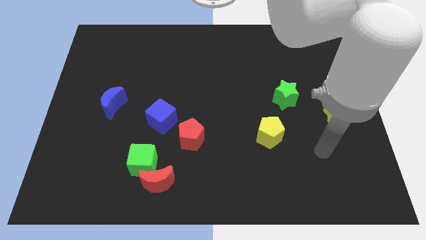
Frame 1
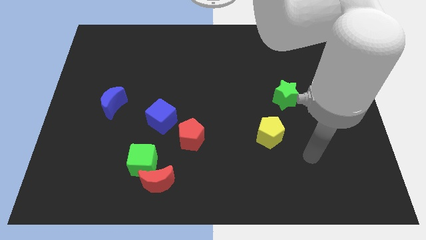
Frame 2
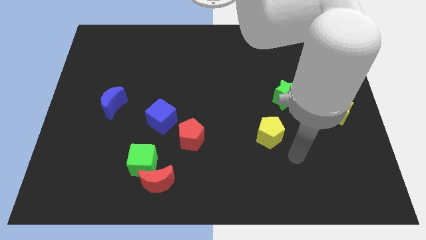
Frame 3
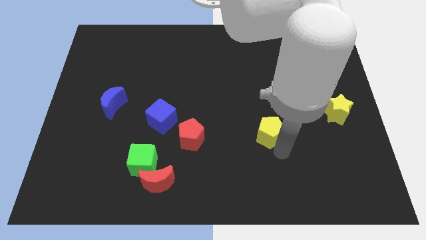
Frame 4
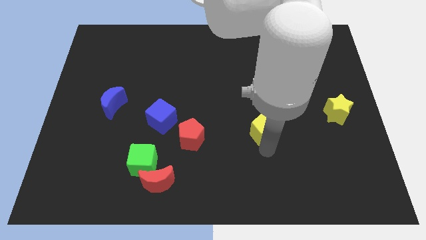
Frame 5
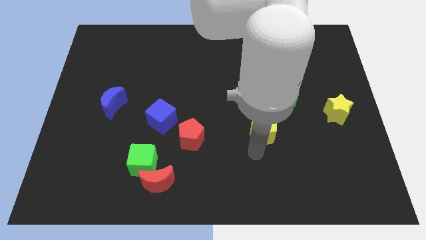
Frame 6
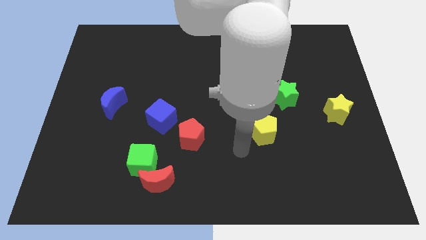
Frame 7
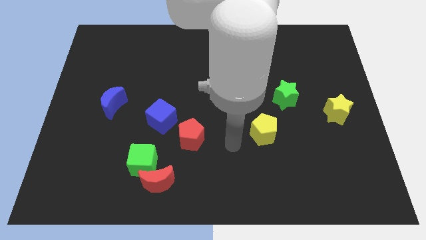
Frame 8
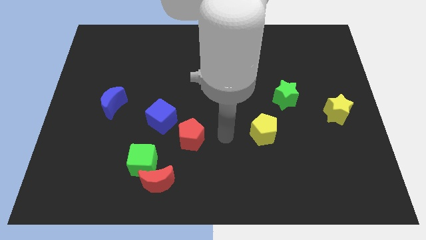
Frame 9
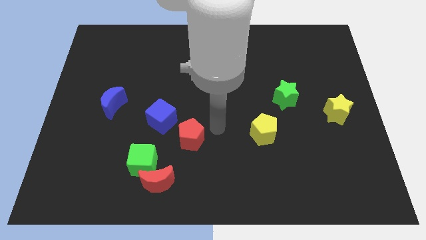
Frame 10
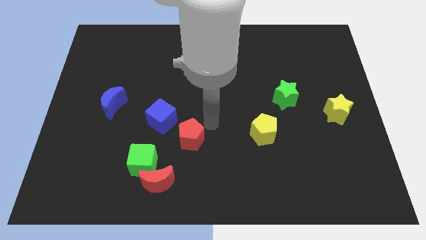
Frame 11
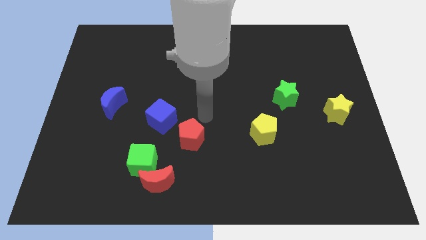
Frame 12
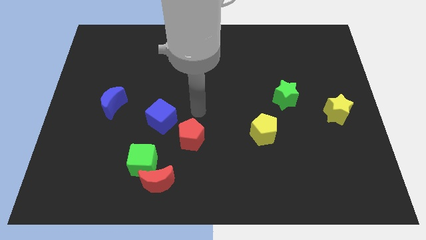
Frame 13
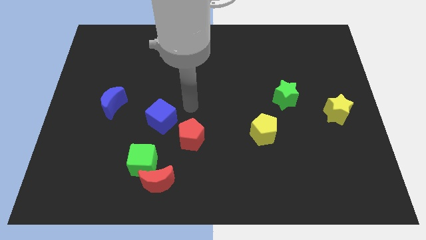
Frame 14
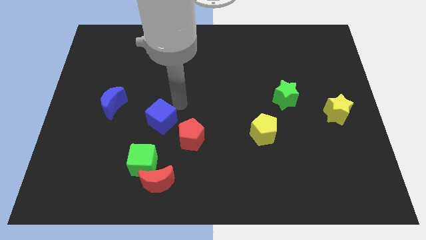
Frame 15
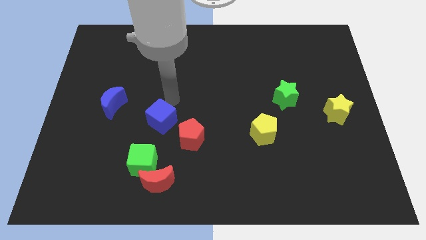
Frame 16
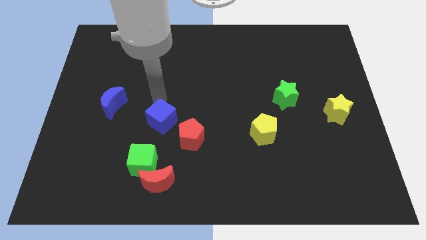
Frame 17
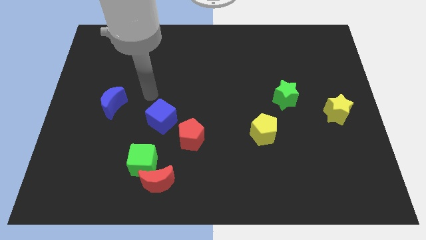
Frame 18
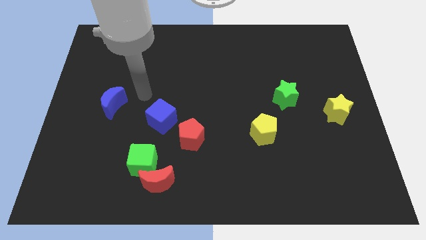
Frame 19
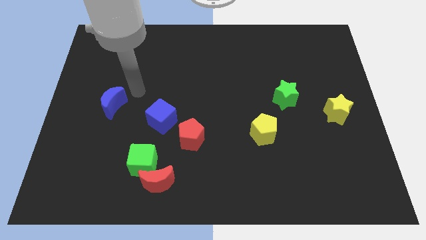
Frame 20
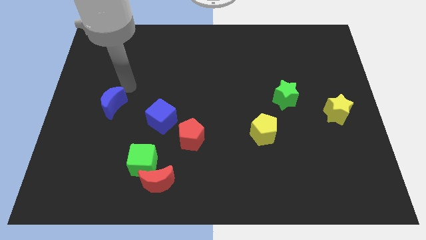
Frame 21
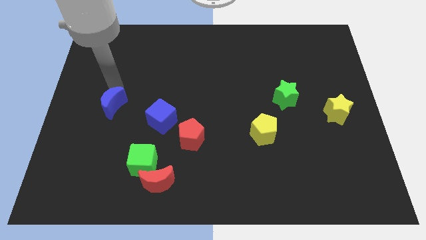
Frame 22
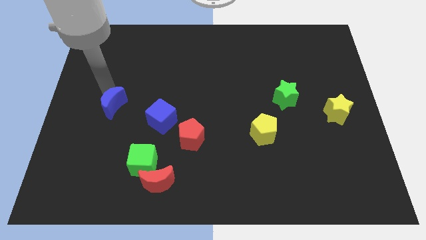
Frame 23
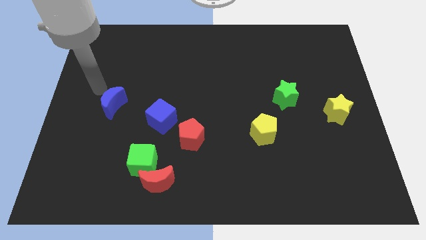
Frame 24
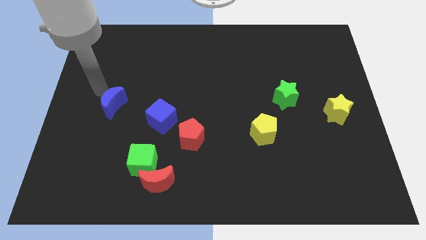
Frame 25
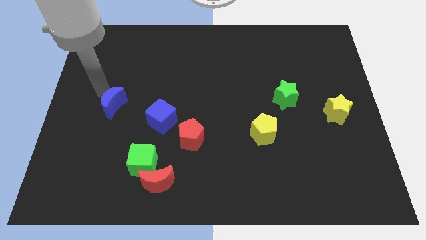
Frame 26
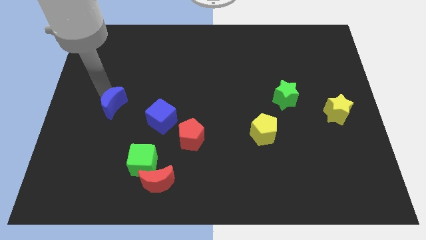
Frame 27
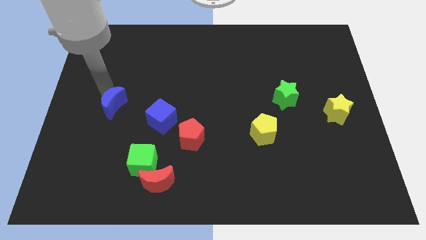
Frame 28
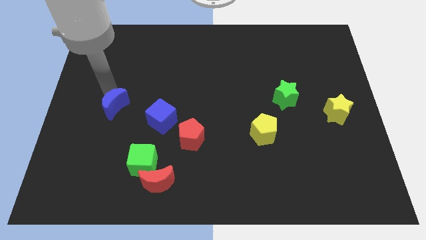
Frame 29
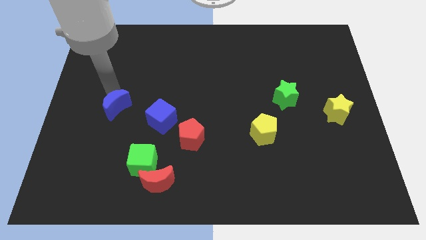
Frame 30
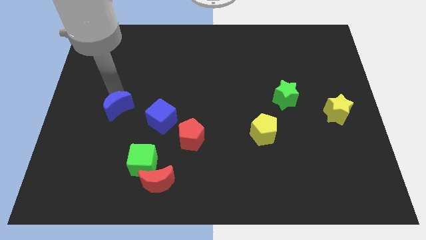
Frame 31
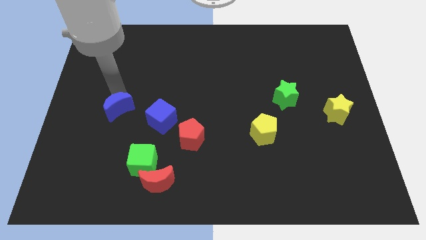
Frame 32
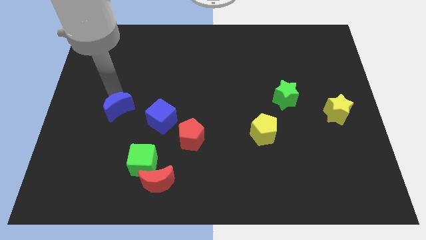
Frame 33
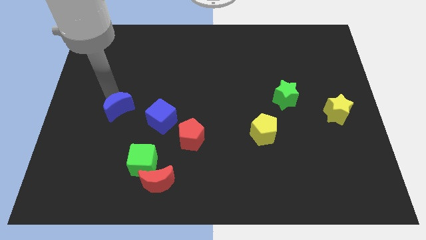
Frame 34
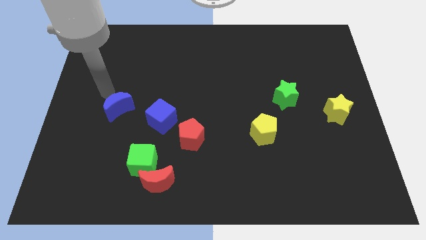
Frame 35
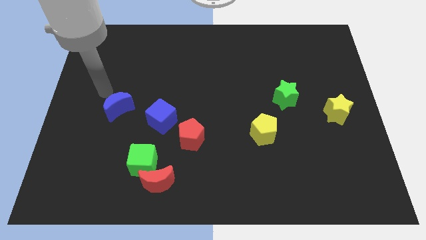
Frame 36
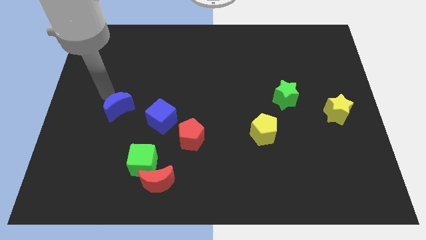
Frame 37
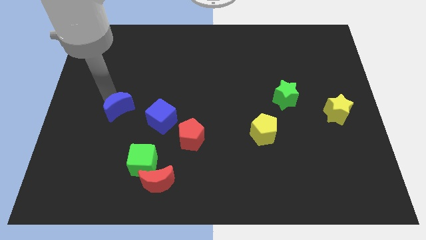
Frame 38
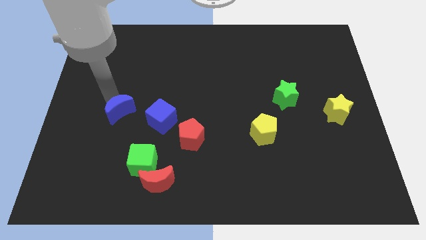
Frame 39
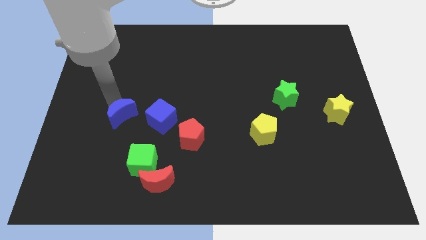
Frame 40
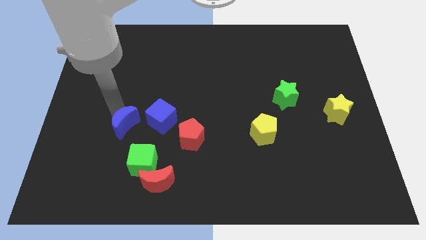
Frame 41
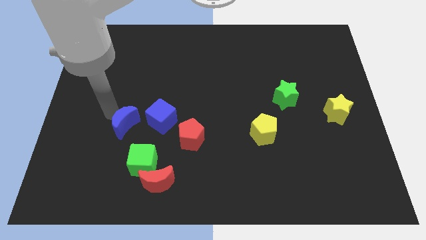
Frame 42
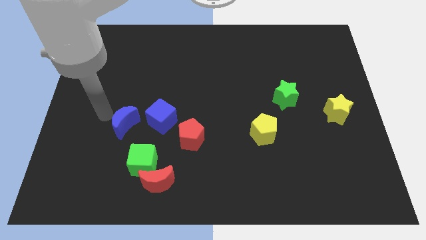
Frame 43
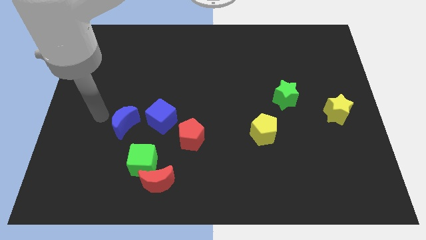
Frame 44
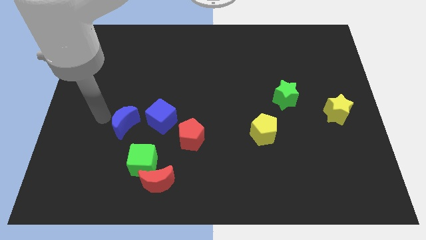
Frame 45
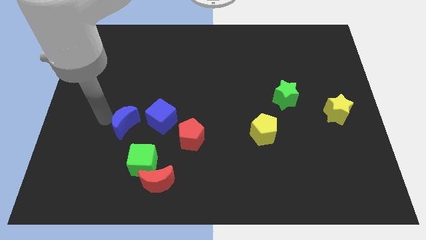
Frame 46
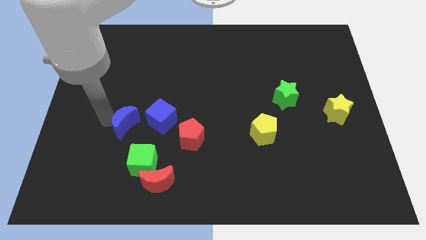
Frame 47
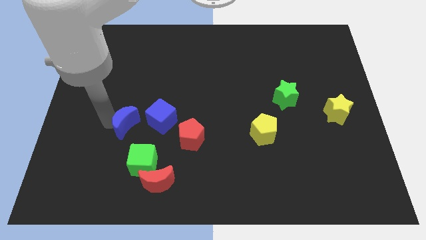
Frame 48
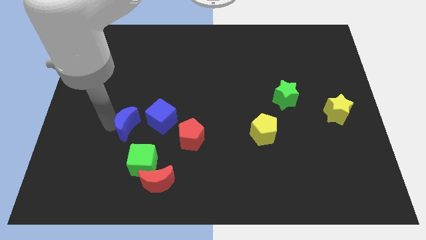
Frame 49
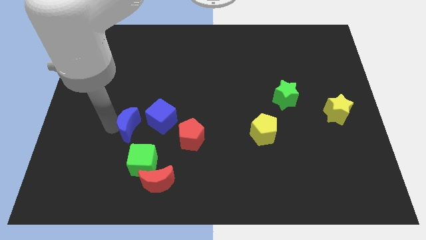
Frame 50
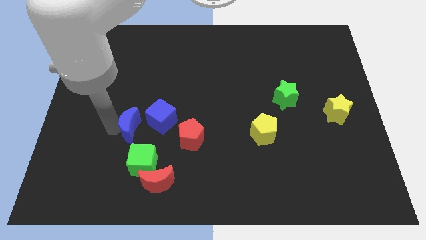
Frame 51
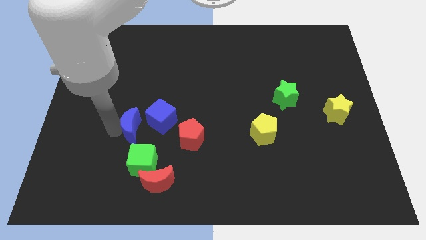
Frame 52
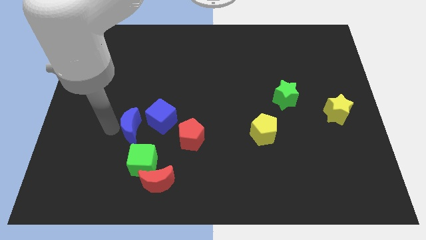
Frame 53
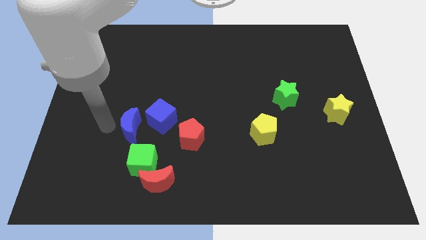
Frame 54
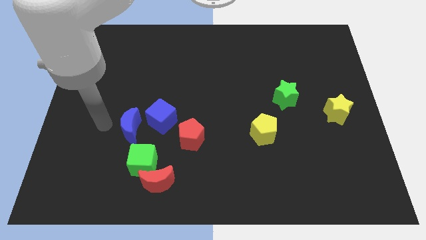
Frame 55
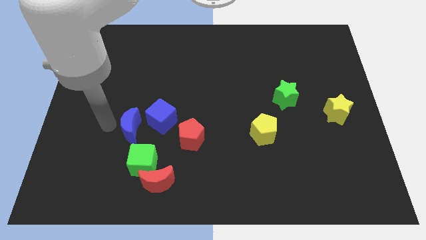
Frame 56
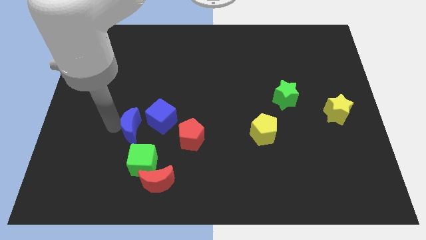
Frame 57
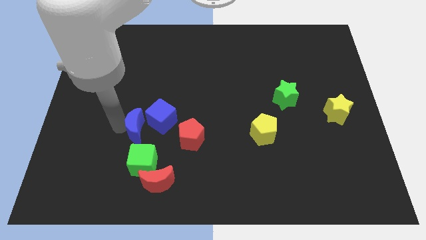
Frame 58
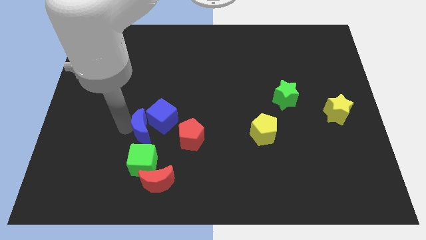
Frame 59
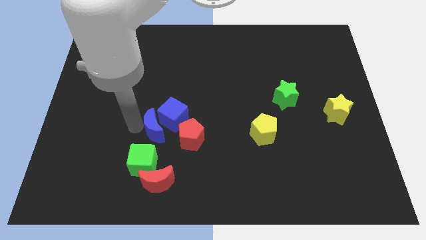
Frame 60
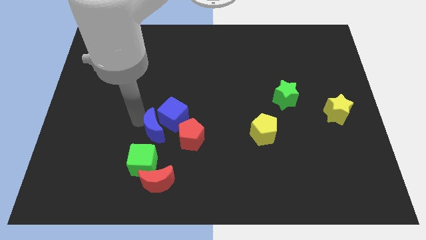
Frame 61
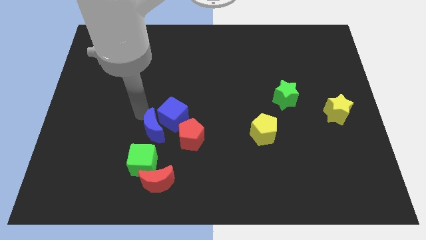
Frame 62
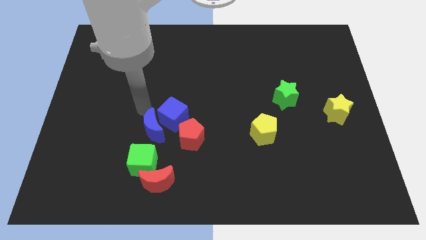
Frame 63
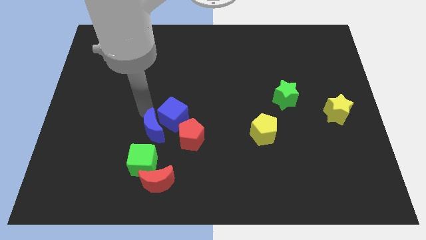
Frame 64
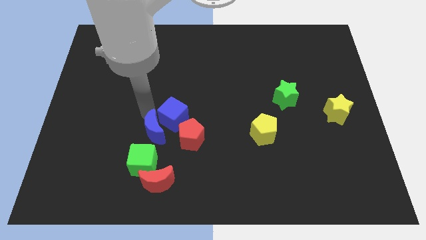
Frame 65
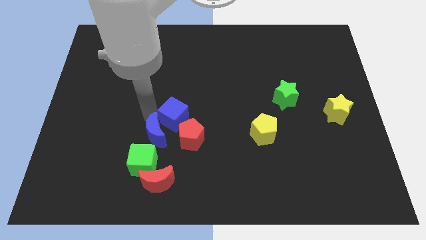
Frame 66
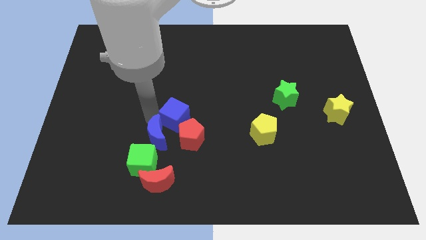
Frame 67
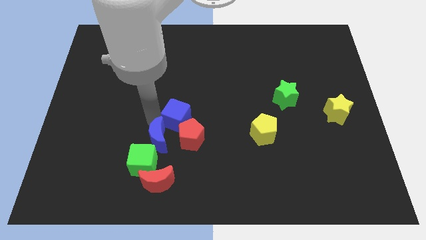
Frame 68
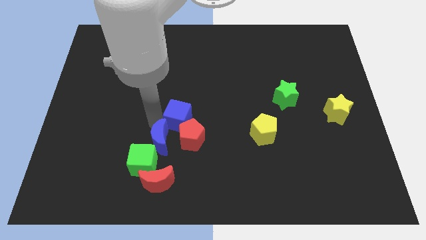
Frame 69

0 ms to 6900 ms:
put the blue moon diagonally down and to the left of the red pentagon

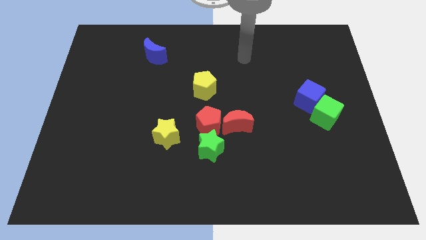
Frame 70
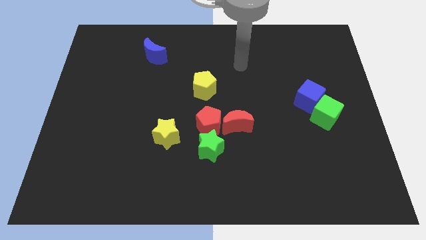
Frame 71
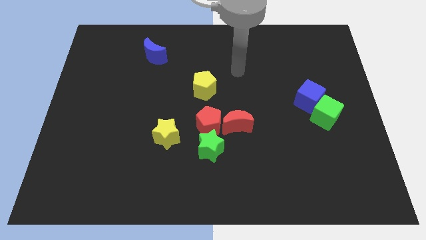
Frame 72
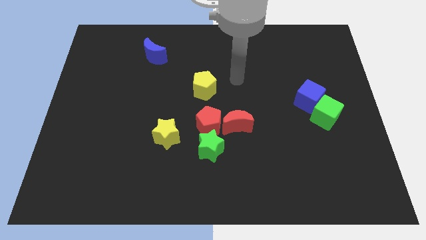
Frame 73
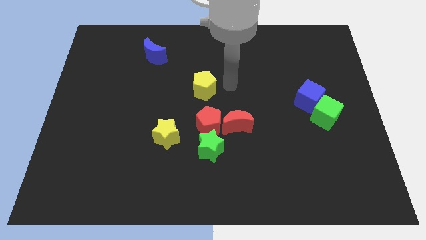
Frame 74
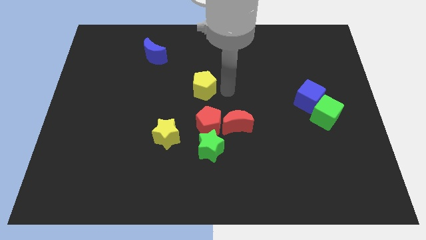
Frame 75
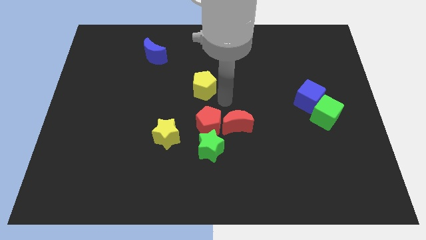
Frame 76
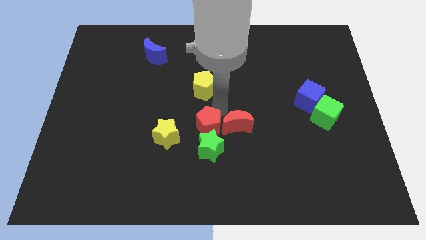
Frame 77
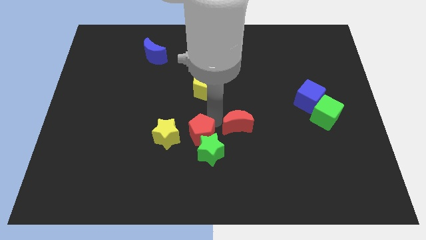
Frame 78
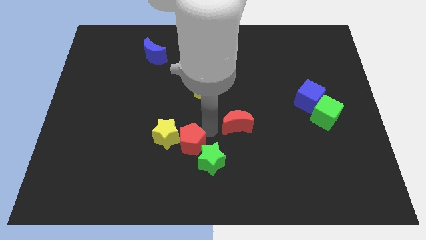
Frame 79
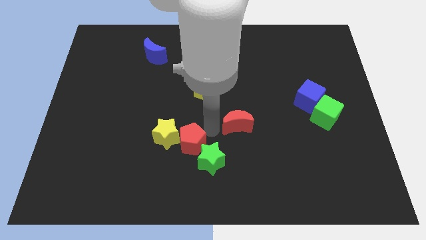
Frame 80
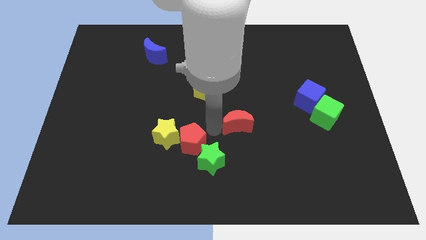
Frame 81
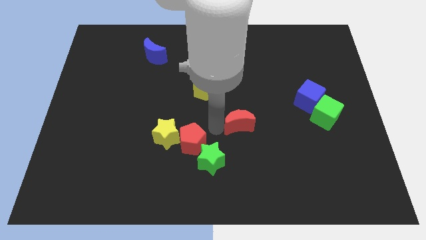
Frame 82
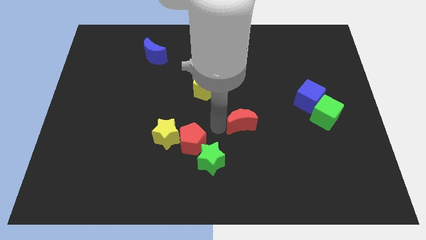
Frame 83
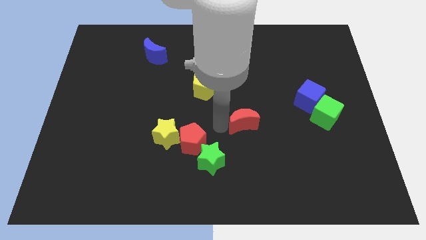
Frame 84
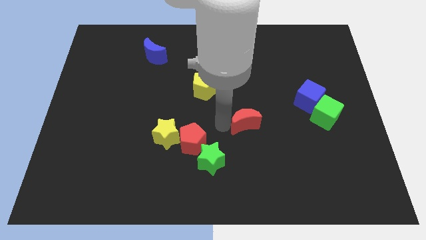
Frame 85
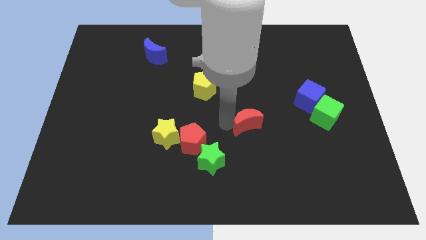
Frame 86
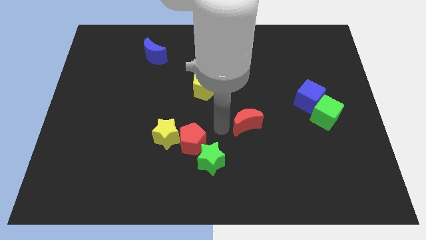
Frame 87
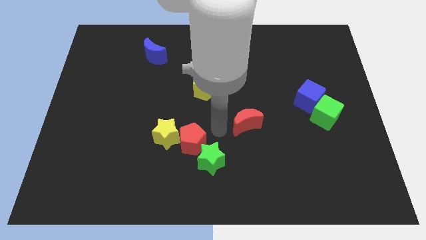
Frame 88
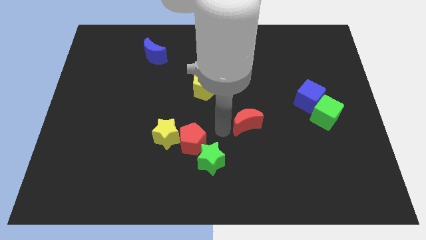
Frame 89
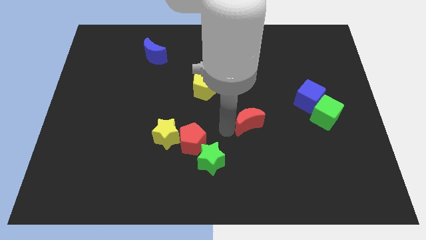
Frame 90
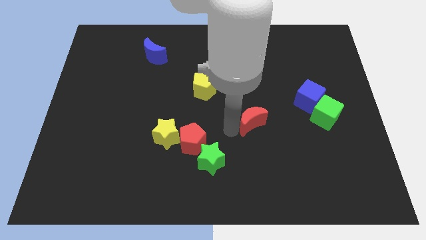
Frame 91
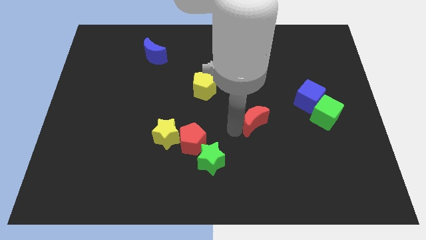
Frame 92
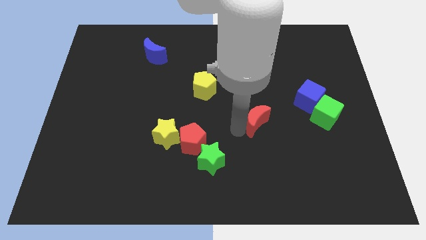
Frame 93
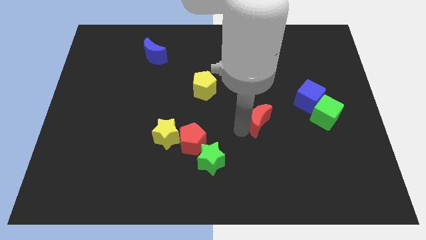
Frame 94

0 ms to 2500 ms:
move the red moon left of the green cube
